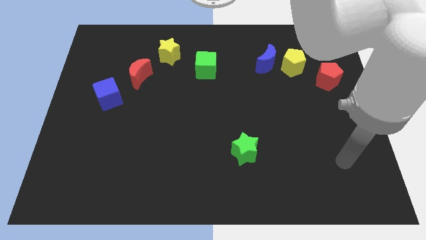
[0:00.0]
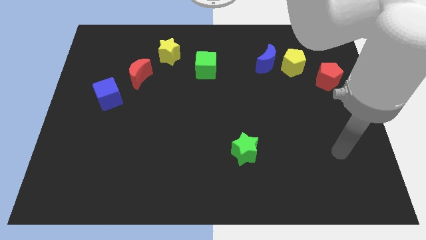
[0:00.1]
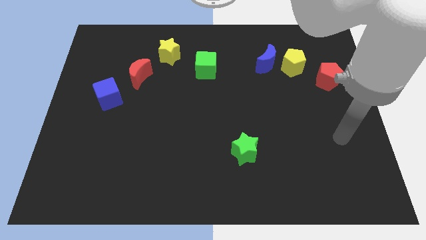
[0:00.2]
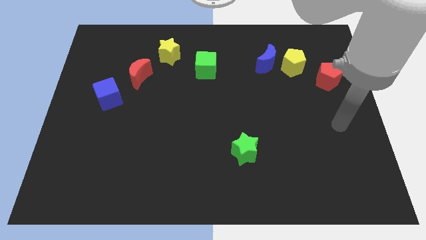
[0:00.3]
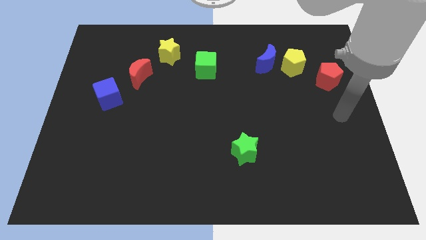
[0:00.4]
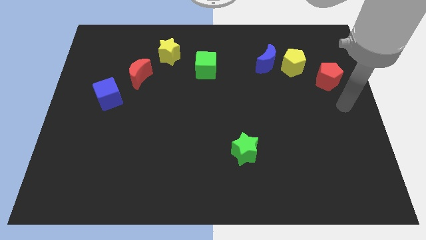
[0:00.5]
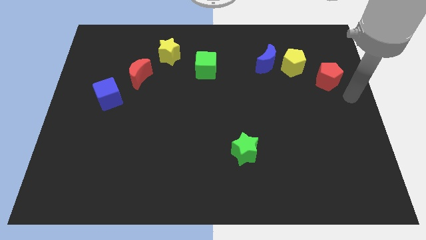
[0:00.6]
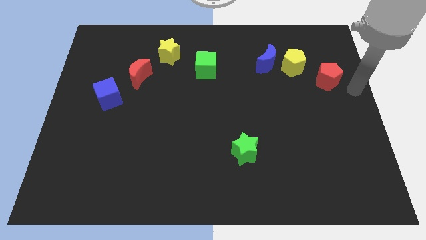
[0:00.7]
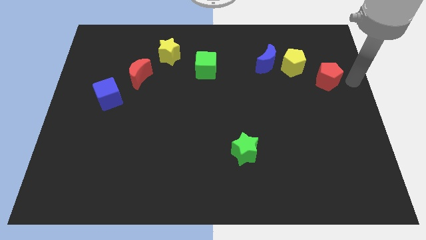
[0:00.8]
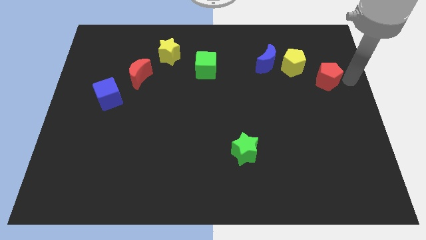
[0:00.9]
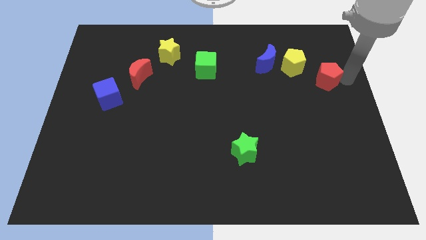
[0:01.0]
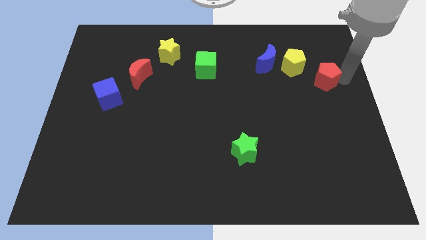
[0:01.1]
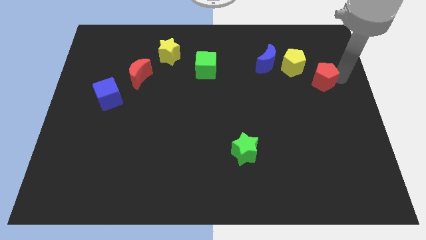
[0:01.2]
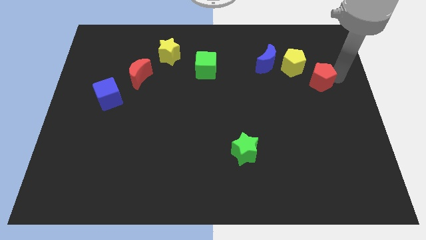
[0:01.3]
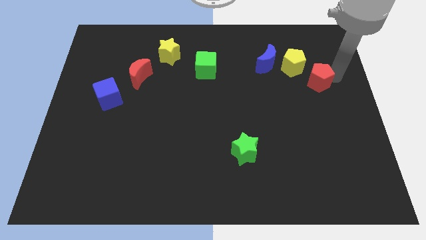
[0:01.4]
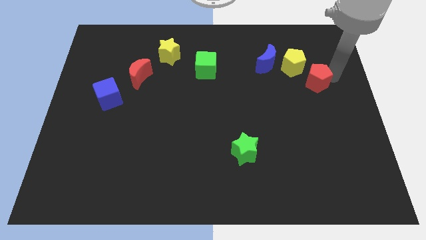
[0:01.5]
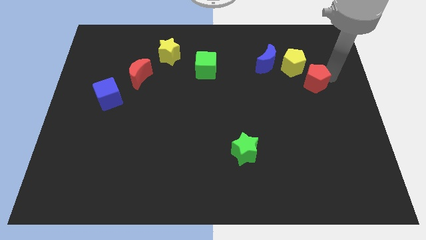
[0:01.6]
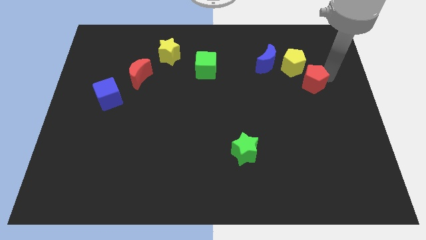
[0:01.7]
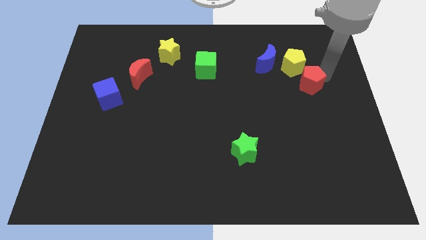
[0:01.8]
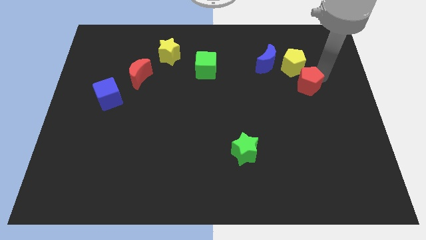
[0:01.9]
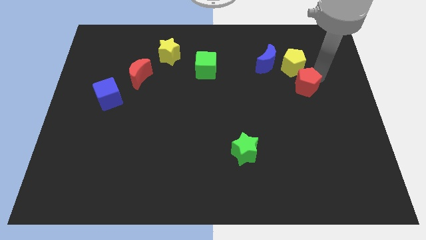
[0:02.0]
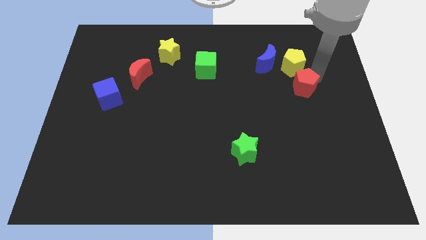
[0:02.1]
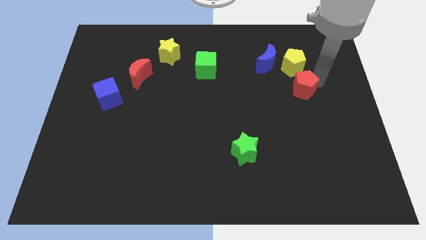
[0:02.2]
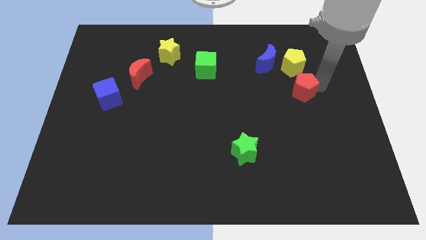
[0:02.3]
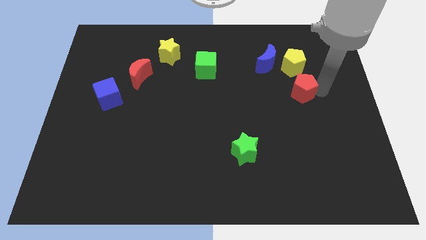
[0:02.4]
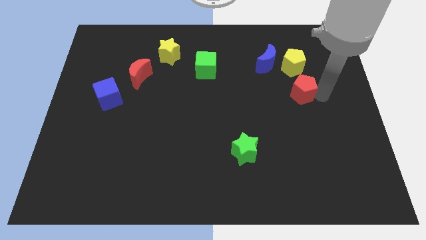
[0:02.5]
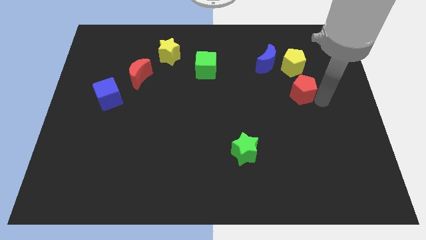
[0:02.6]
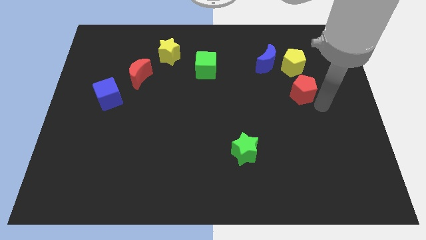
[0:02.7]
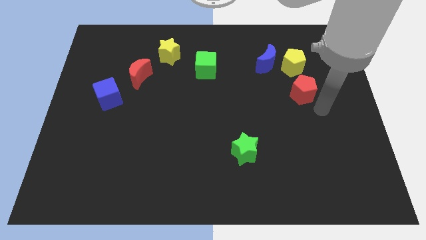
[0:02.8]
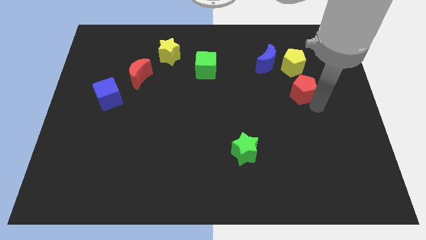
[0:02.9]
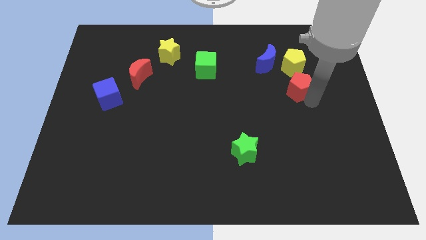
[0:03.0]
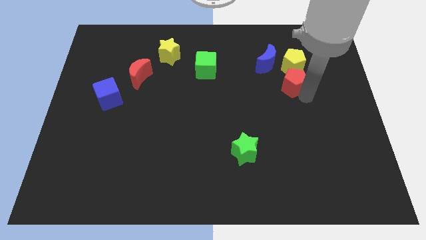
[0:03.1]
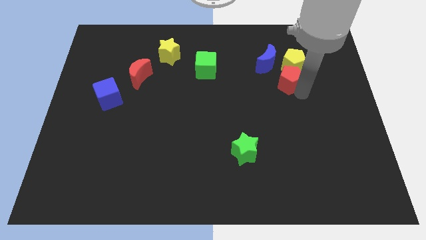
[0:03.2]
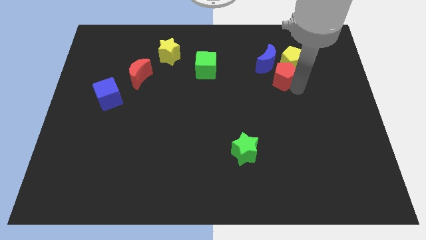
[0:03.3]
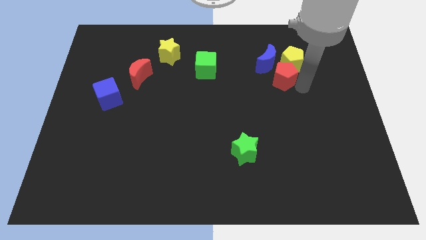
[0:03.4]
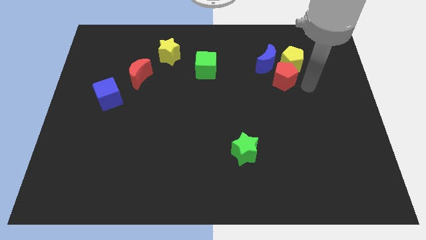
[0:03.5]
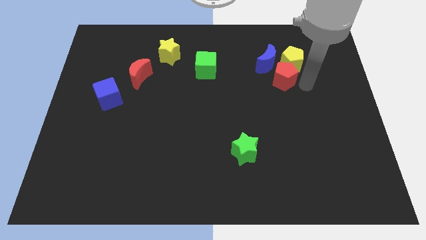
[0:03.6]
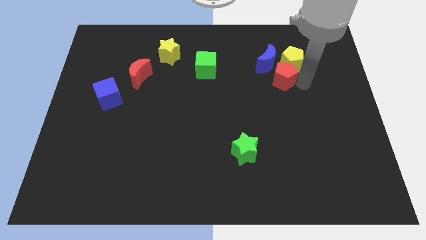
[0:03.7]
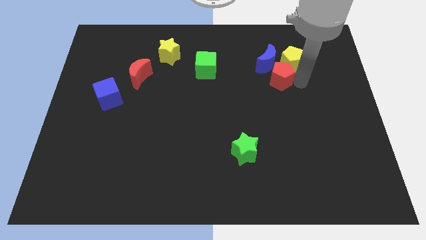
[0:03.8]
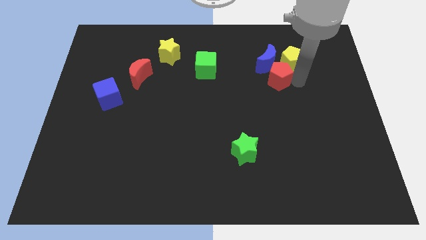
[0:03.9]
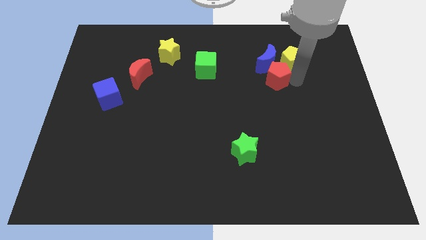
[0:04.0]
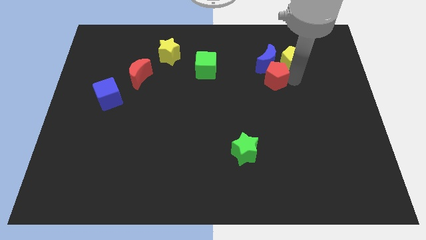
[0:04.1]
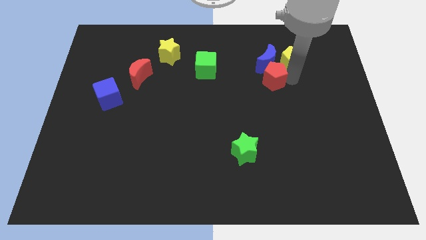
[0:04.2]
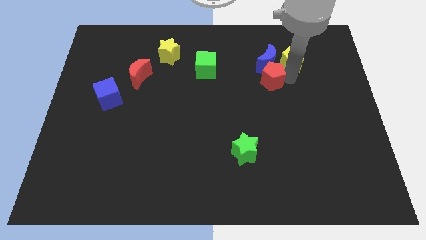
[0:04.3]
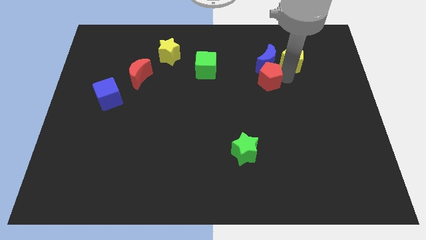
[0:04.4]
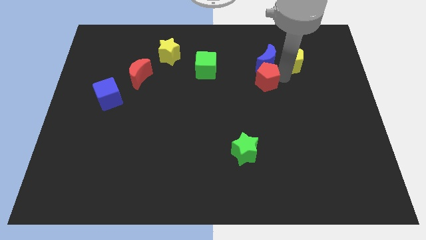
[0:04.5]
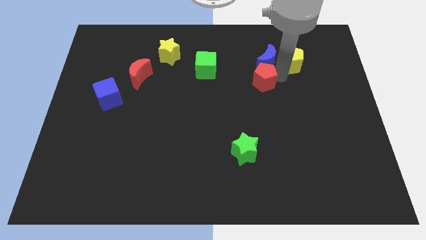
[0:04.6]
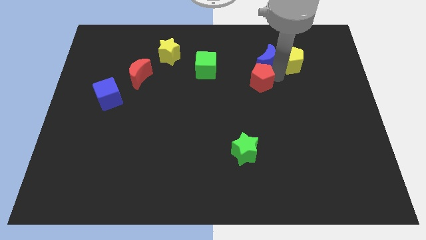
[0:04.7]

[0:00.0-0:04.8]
put the red pentagon just right of the green cube

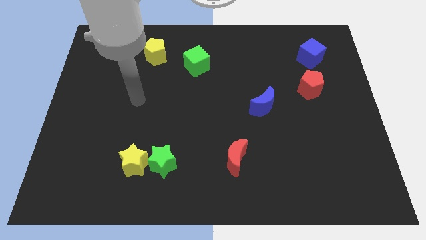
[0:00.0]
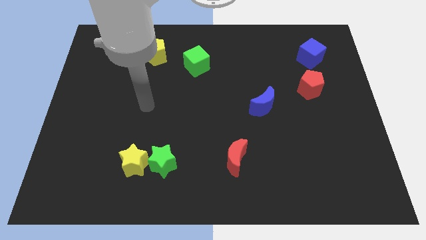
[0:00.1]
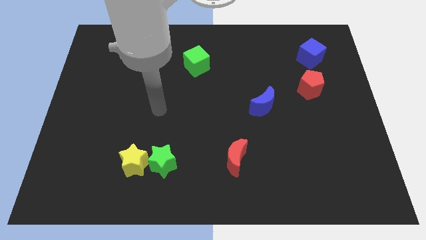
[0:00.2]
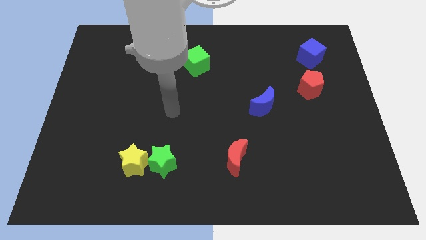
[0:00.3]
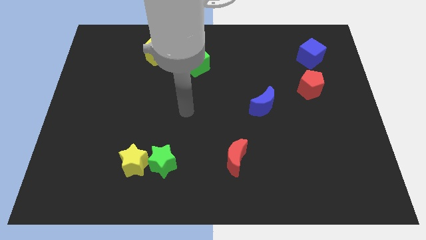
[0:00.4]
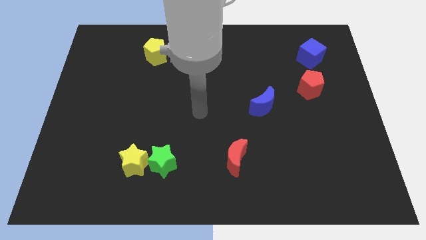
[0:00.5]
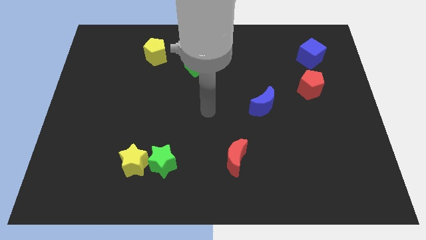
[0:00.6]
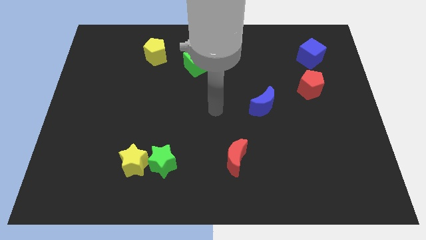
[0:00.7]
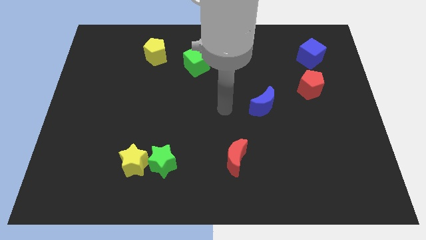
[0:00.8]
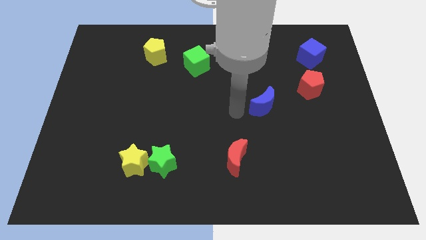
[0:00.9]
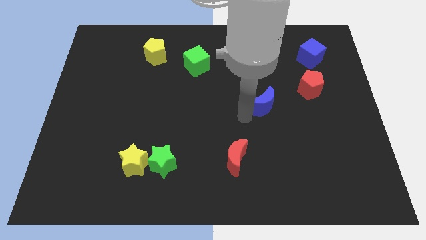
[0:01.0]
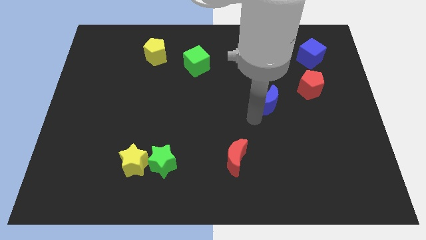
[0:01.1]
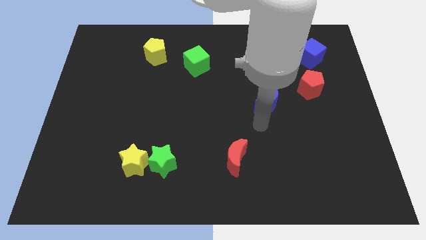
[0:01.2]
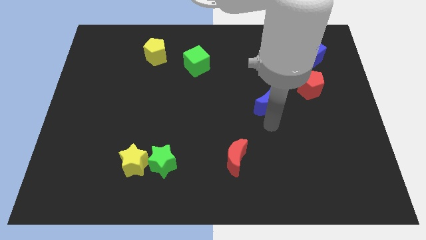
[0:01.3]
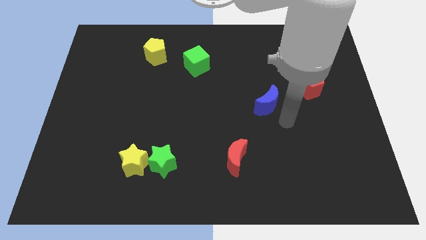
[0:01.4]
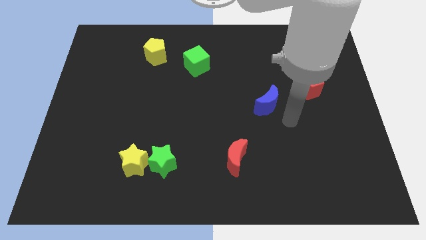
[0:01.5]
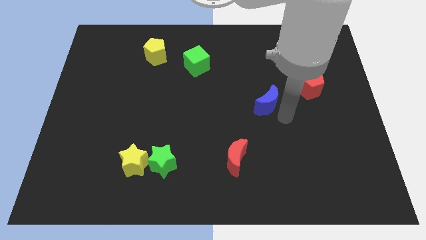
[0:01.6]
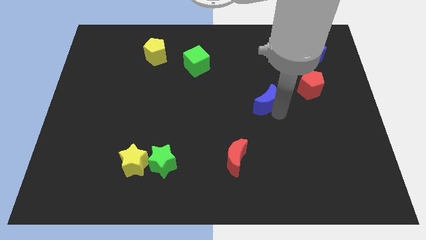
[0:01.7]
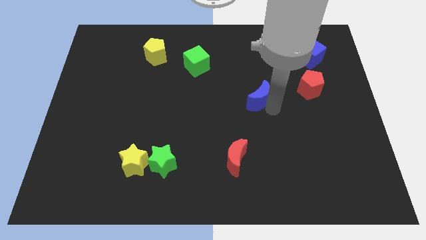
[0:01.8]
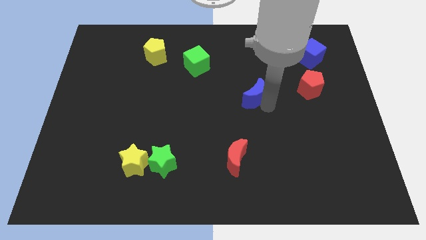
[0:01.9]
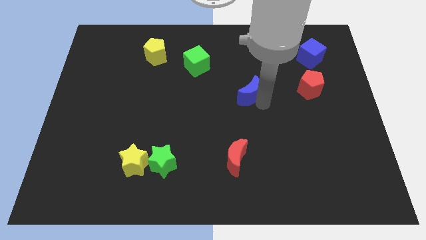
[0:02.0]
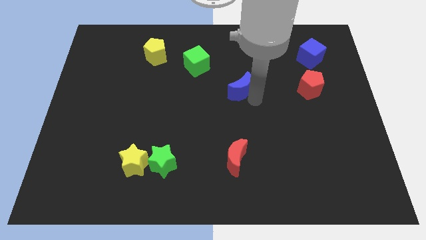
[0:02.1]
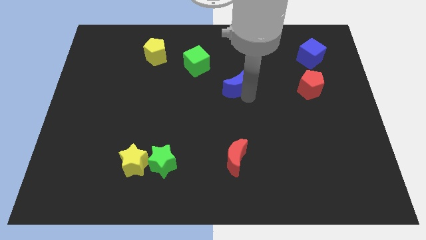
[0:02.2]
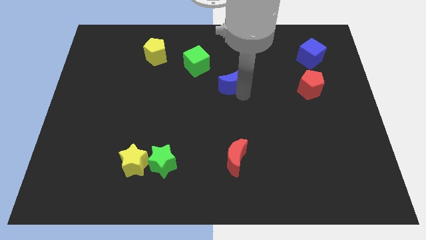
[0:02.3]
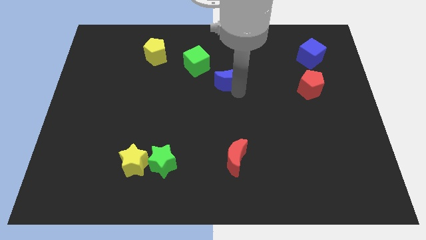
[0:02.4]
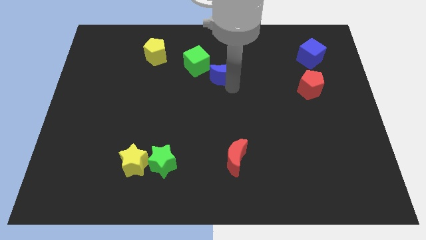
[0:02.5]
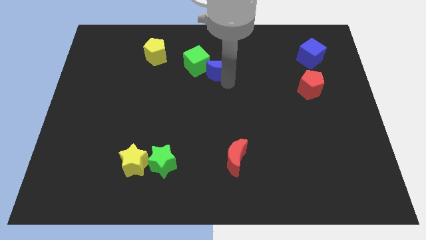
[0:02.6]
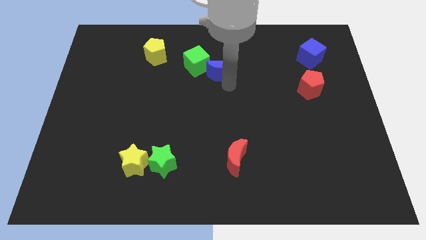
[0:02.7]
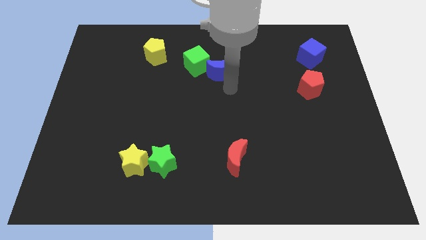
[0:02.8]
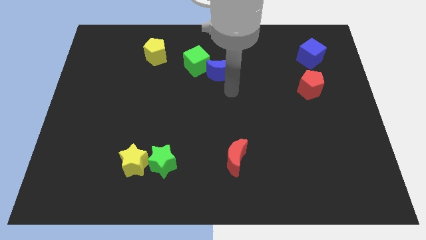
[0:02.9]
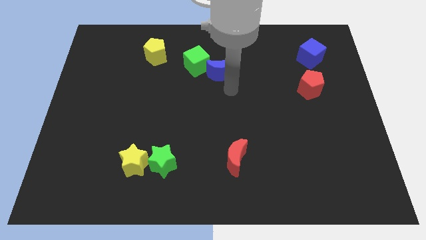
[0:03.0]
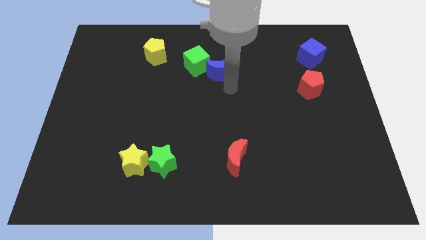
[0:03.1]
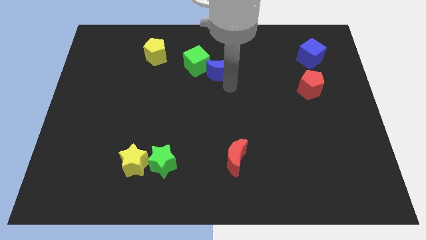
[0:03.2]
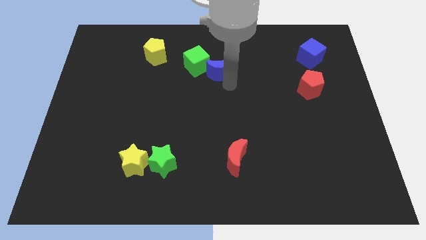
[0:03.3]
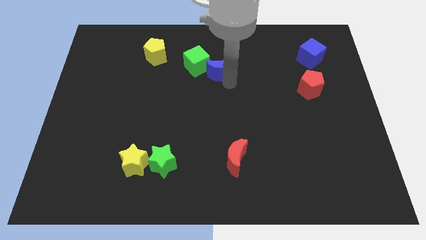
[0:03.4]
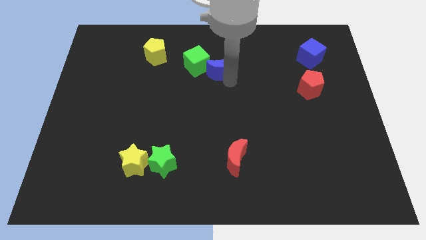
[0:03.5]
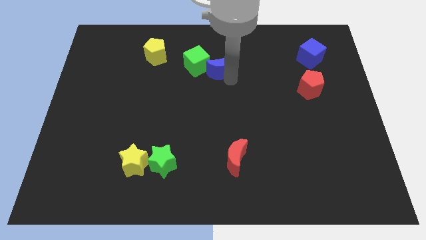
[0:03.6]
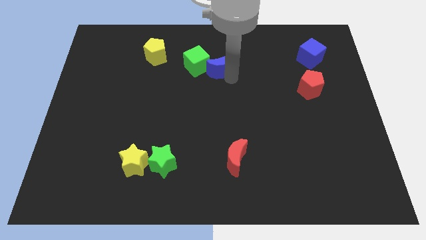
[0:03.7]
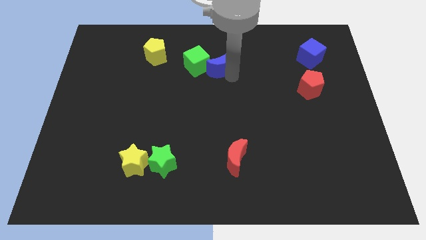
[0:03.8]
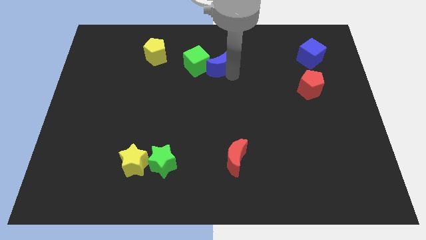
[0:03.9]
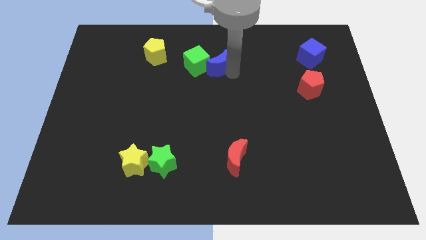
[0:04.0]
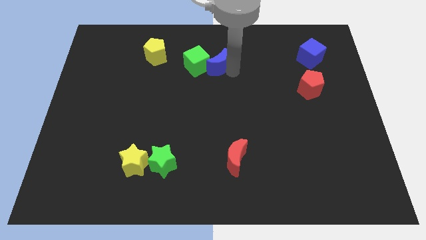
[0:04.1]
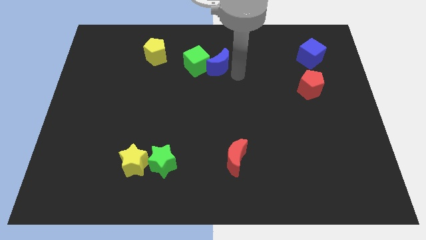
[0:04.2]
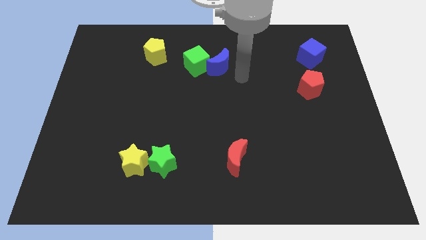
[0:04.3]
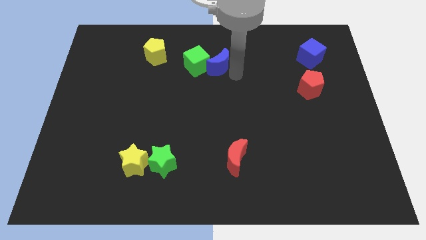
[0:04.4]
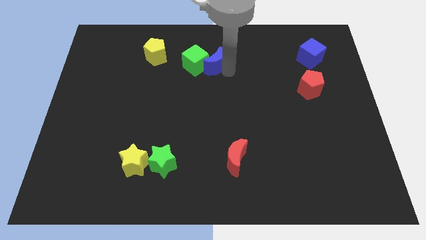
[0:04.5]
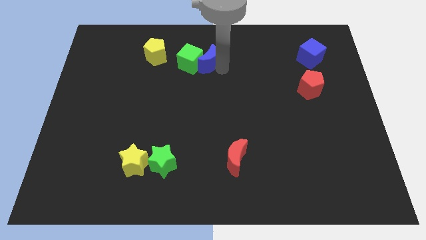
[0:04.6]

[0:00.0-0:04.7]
put the blue moon just right of the yellow pentagon
